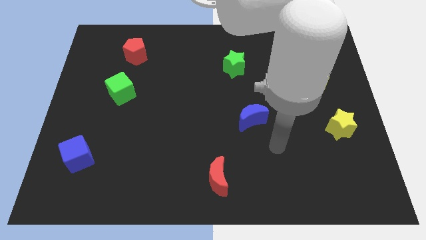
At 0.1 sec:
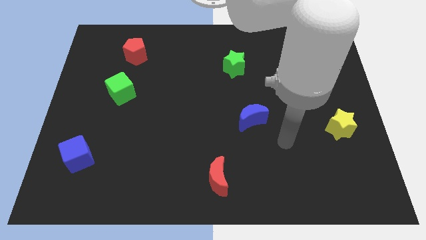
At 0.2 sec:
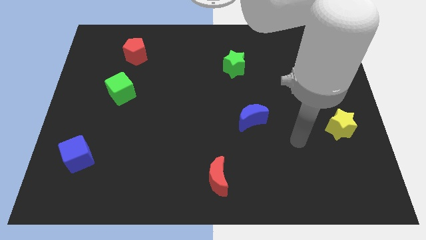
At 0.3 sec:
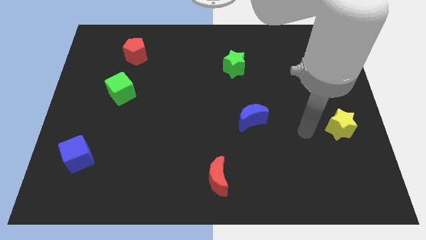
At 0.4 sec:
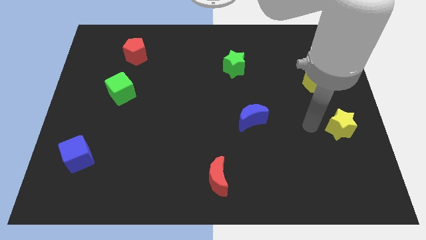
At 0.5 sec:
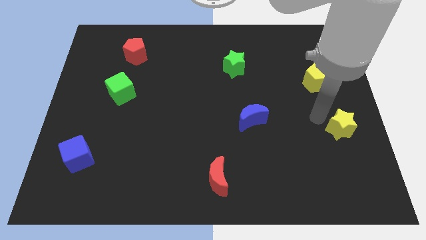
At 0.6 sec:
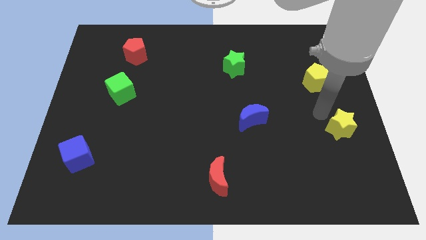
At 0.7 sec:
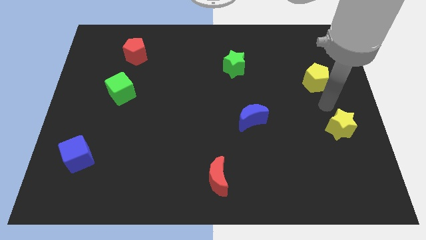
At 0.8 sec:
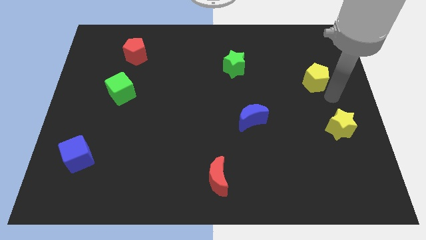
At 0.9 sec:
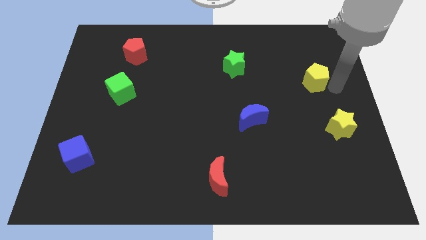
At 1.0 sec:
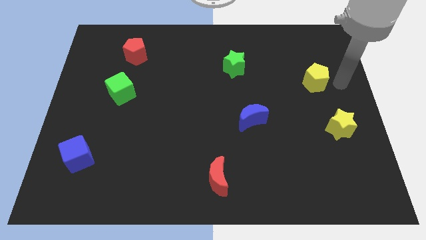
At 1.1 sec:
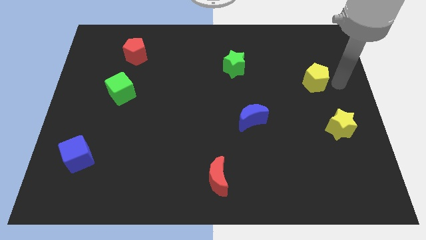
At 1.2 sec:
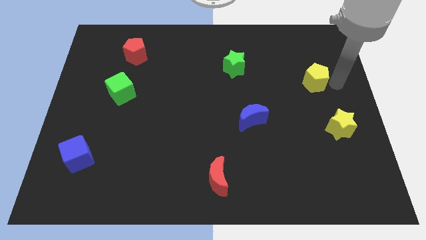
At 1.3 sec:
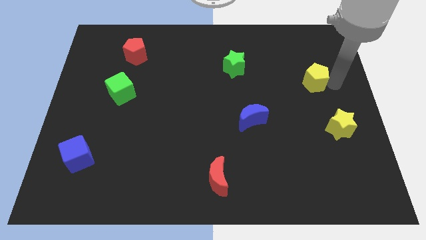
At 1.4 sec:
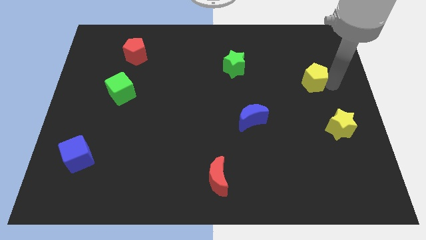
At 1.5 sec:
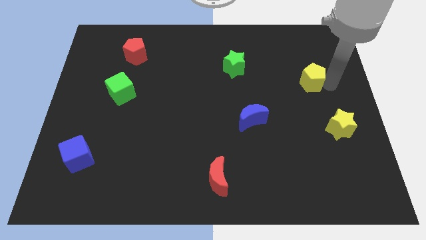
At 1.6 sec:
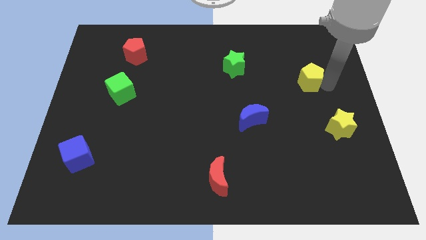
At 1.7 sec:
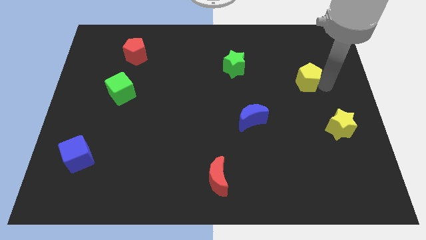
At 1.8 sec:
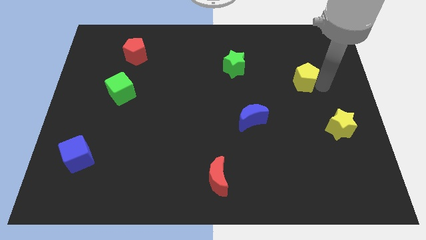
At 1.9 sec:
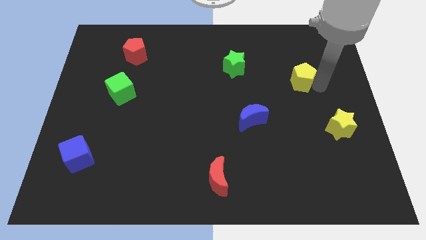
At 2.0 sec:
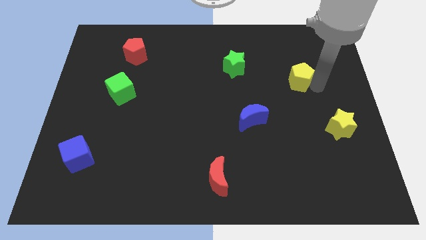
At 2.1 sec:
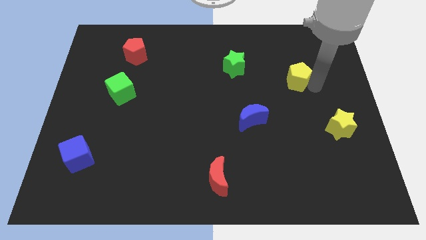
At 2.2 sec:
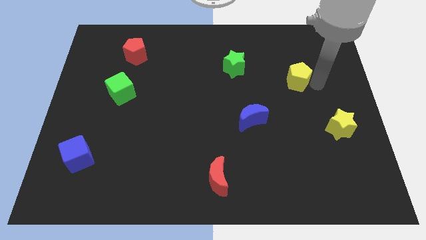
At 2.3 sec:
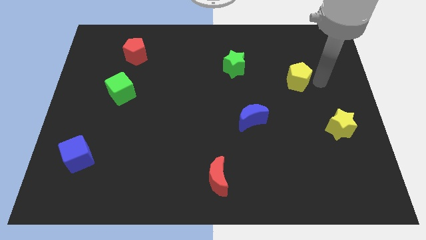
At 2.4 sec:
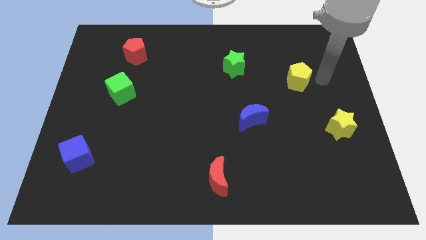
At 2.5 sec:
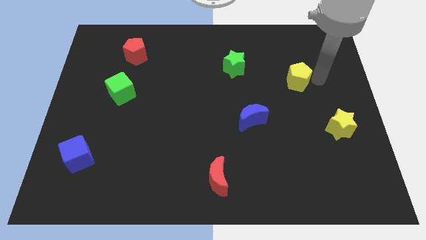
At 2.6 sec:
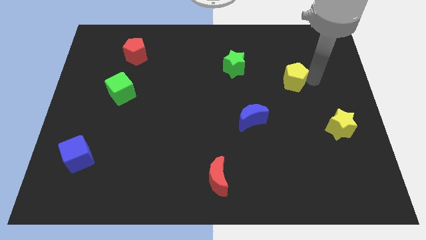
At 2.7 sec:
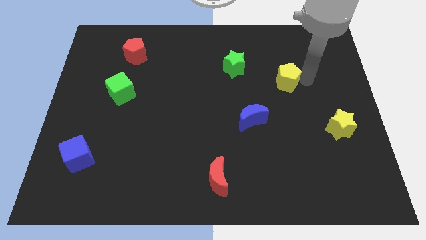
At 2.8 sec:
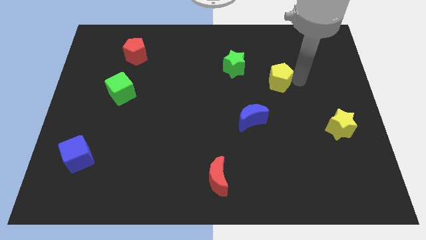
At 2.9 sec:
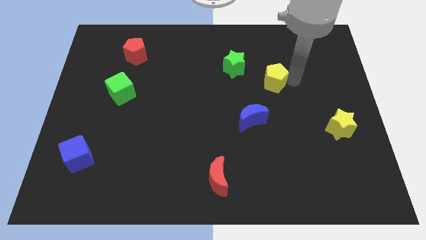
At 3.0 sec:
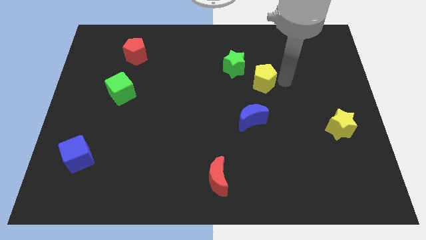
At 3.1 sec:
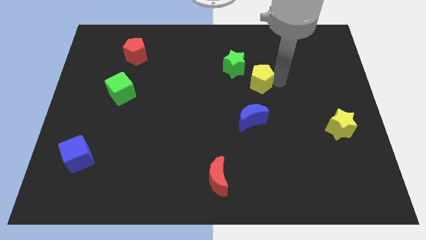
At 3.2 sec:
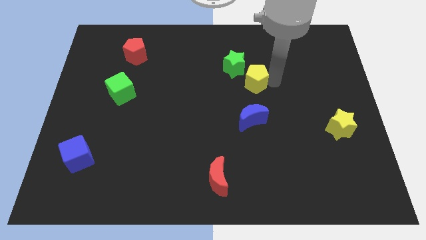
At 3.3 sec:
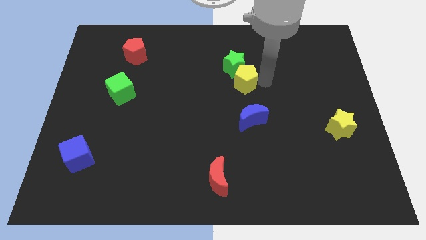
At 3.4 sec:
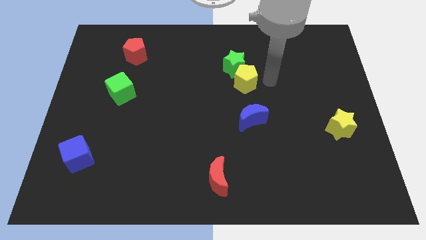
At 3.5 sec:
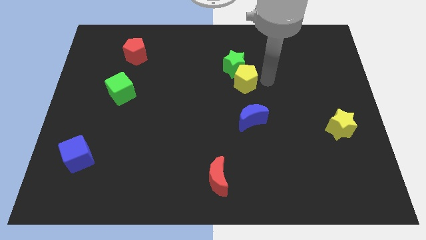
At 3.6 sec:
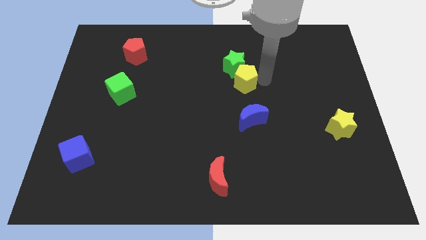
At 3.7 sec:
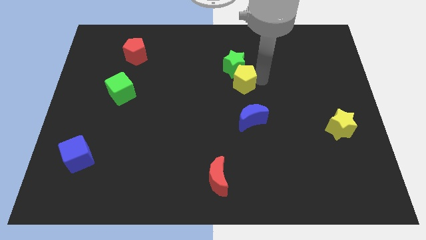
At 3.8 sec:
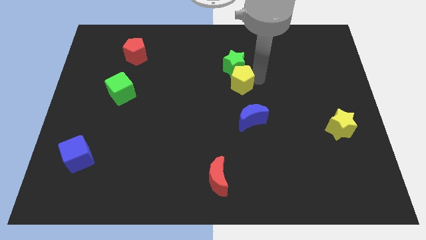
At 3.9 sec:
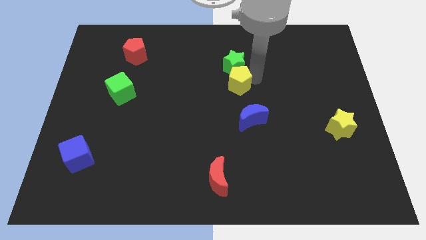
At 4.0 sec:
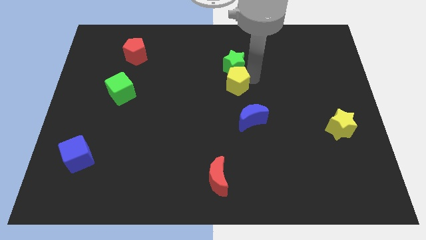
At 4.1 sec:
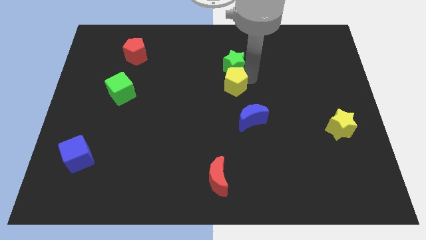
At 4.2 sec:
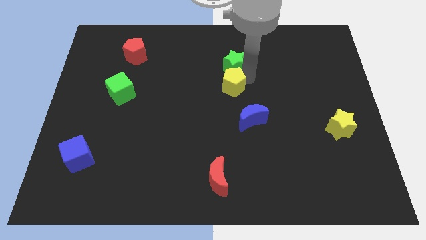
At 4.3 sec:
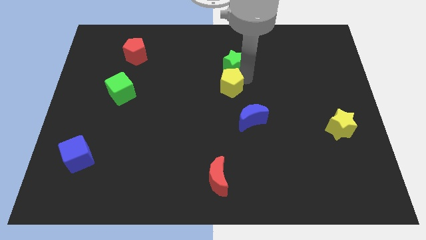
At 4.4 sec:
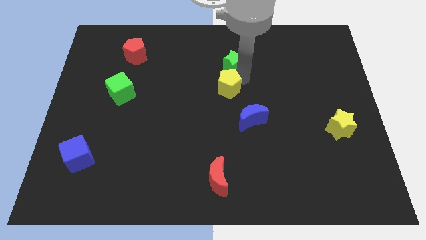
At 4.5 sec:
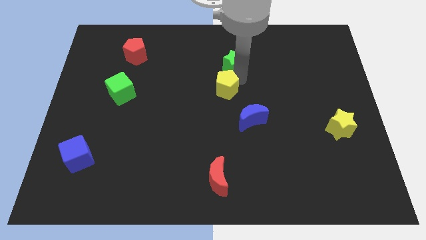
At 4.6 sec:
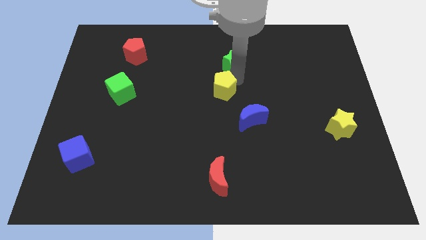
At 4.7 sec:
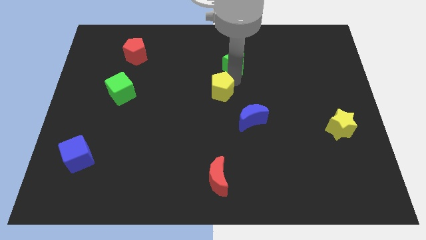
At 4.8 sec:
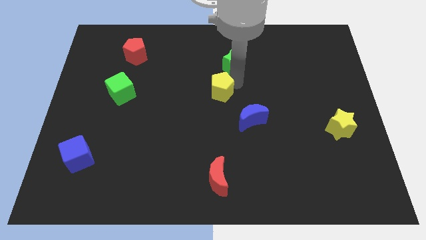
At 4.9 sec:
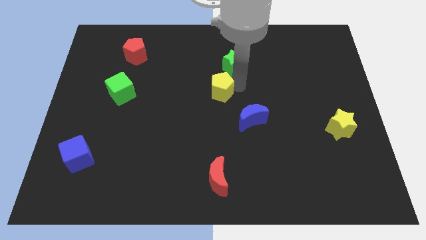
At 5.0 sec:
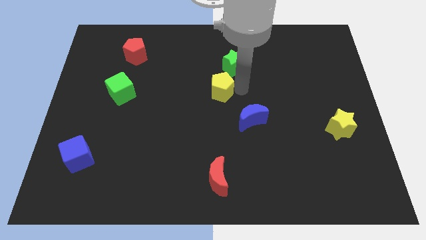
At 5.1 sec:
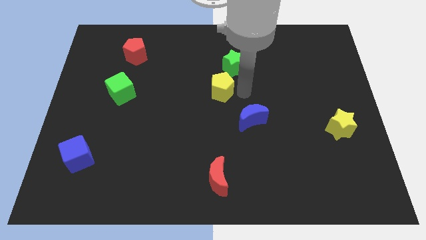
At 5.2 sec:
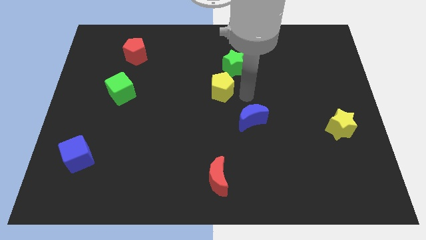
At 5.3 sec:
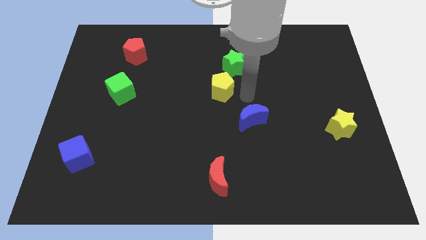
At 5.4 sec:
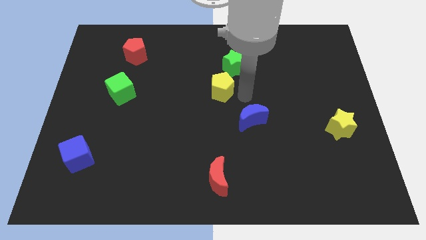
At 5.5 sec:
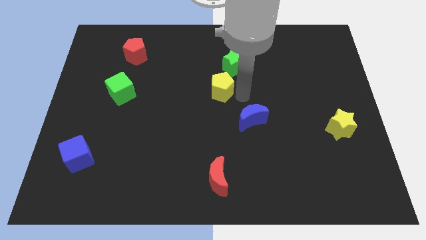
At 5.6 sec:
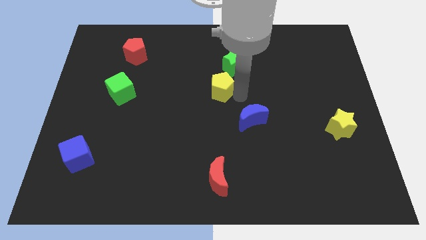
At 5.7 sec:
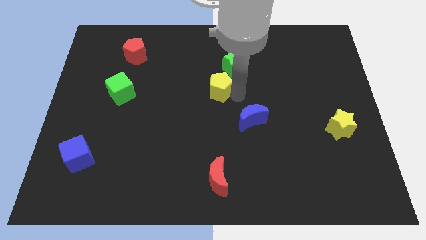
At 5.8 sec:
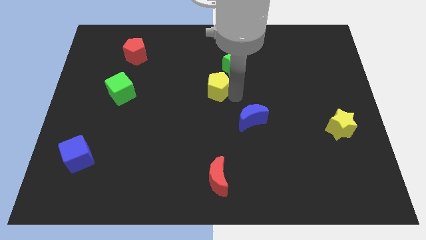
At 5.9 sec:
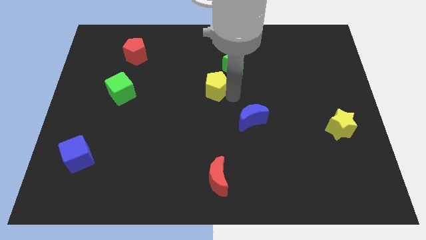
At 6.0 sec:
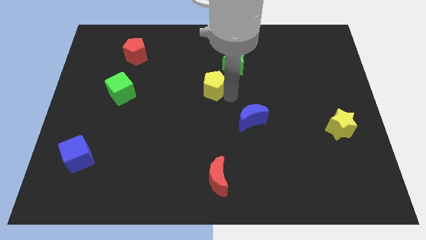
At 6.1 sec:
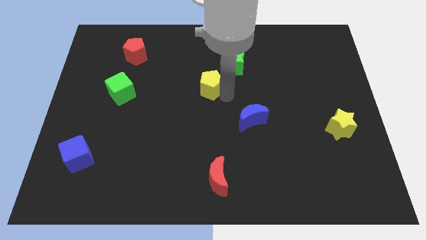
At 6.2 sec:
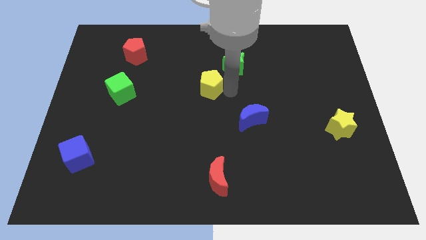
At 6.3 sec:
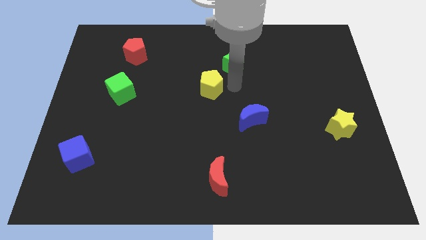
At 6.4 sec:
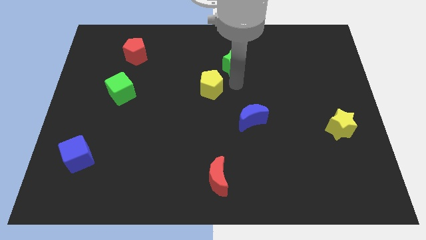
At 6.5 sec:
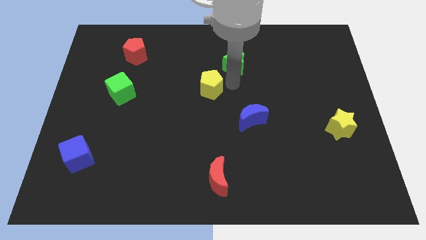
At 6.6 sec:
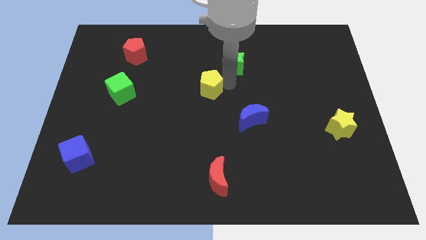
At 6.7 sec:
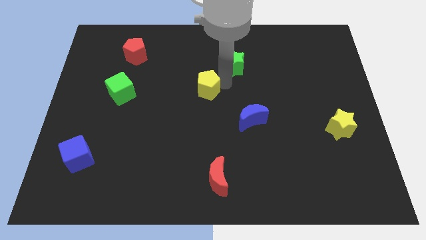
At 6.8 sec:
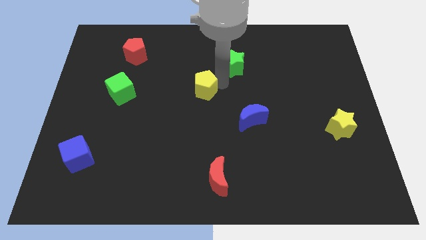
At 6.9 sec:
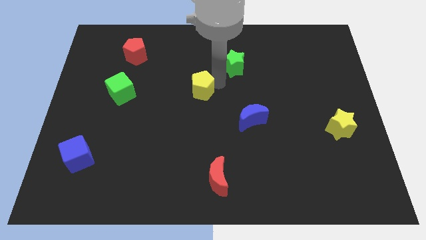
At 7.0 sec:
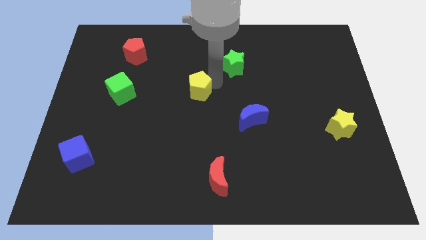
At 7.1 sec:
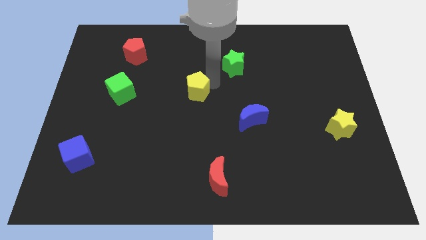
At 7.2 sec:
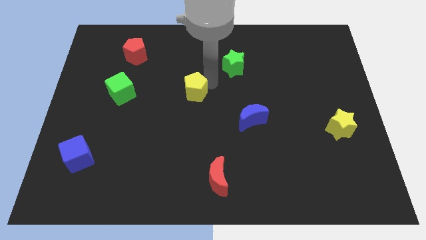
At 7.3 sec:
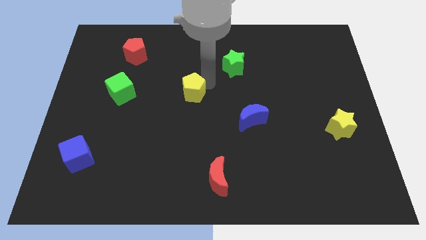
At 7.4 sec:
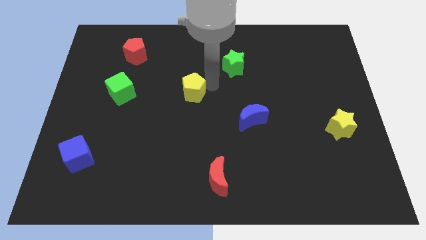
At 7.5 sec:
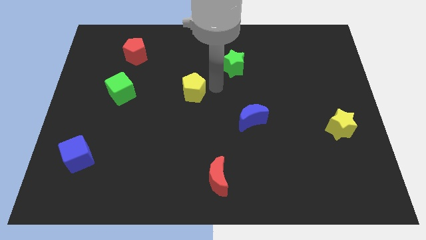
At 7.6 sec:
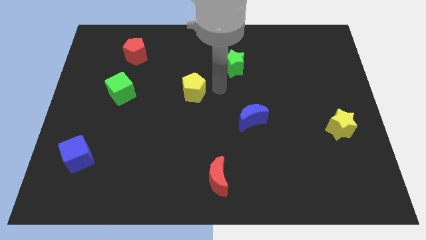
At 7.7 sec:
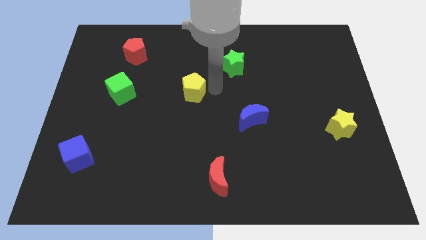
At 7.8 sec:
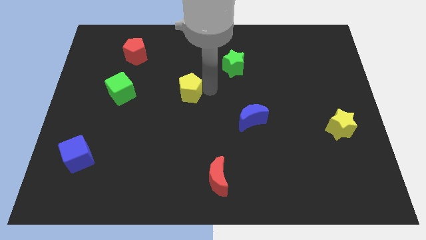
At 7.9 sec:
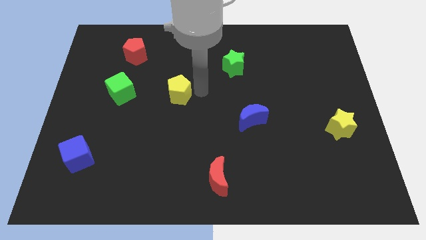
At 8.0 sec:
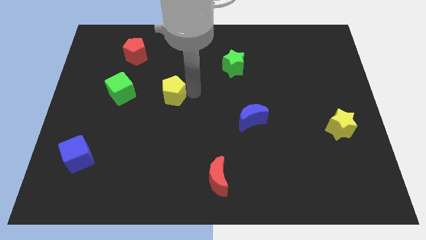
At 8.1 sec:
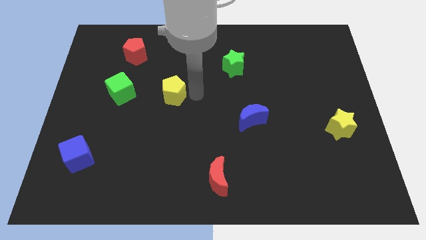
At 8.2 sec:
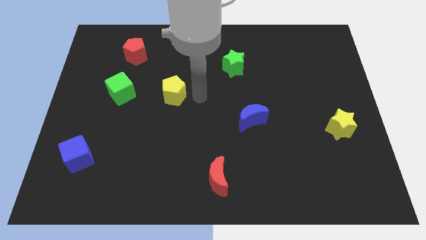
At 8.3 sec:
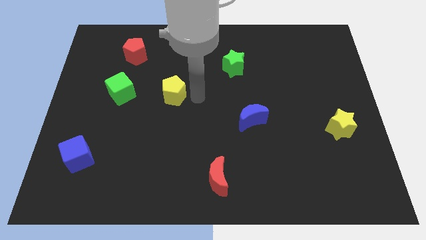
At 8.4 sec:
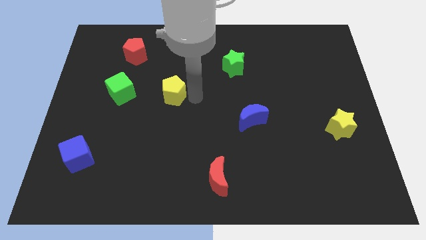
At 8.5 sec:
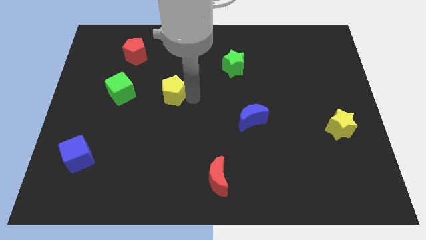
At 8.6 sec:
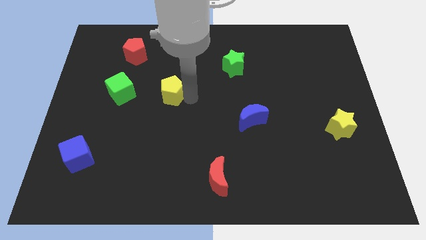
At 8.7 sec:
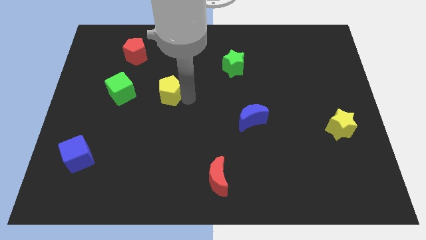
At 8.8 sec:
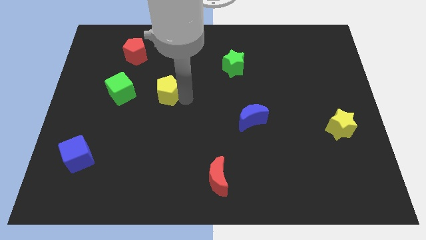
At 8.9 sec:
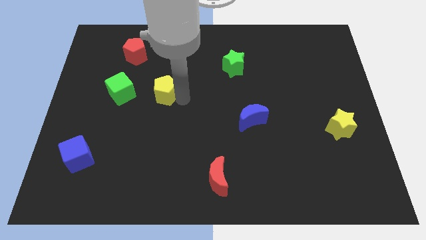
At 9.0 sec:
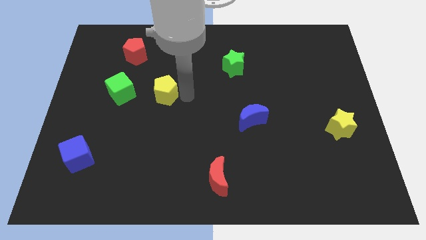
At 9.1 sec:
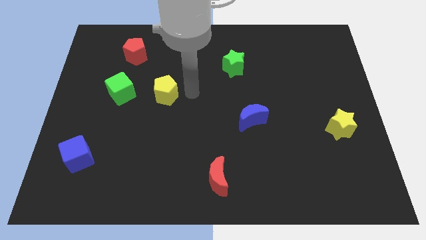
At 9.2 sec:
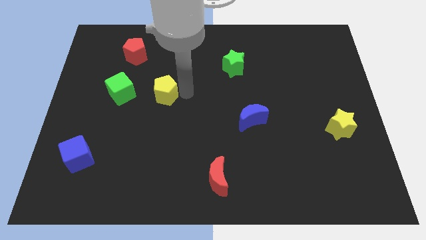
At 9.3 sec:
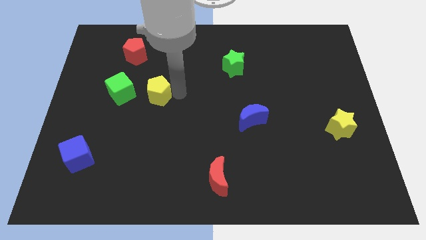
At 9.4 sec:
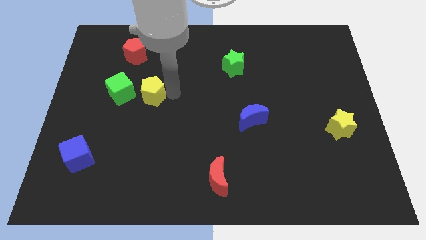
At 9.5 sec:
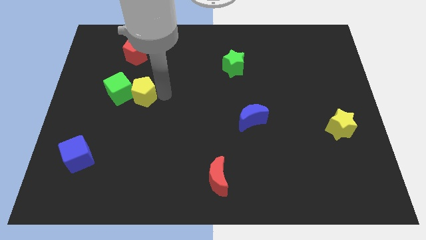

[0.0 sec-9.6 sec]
put the yellow pentagon to the green cube
